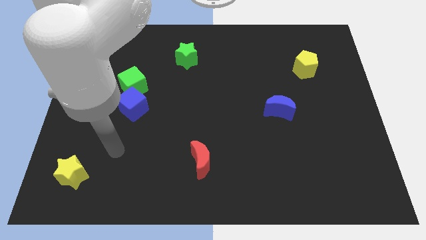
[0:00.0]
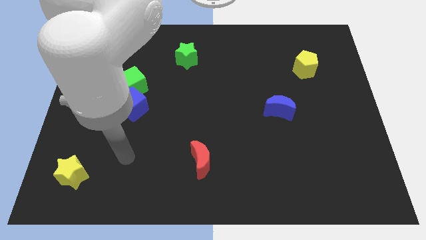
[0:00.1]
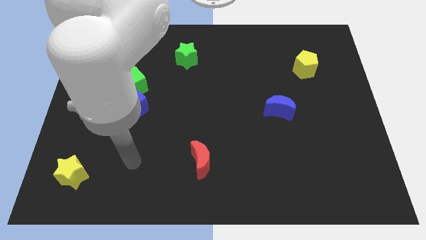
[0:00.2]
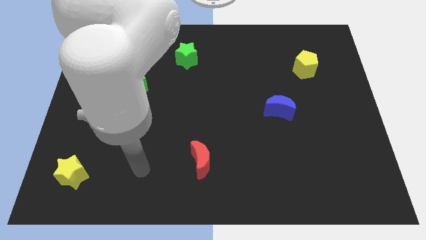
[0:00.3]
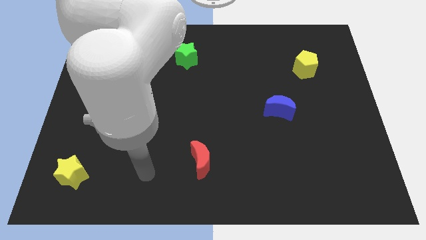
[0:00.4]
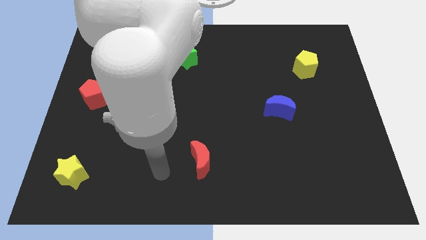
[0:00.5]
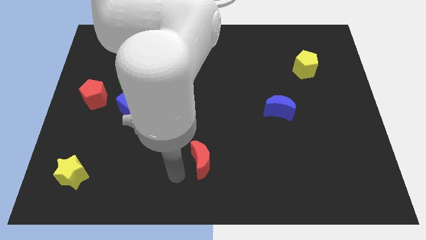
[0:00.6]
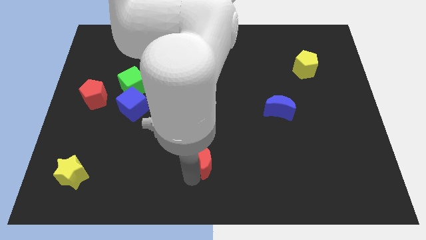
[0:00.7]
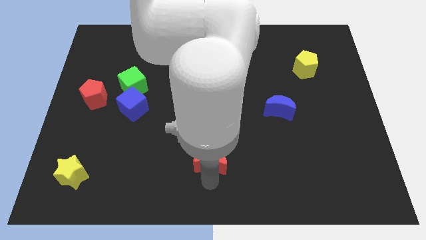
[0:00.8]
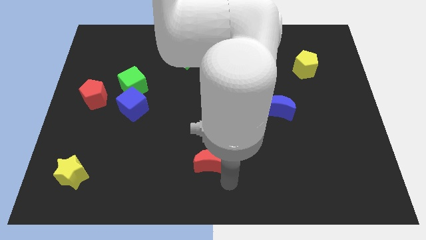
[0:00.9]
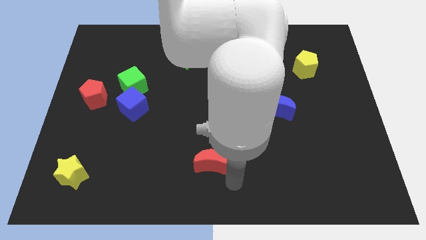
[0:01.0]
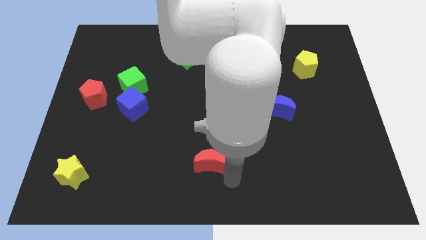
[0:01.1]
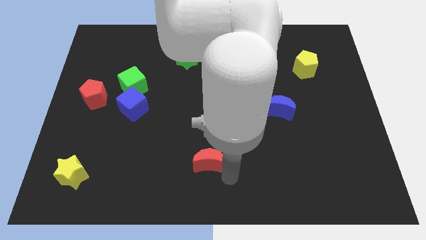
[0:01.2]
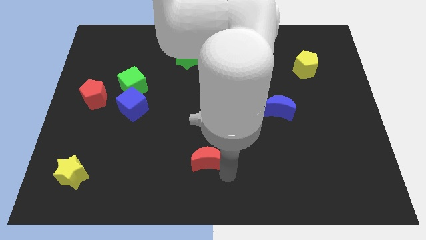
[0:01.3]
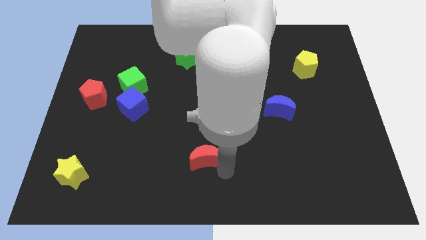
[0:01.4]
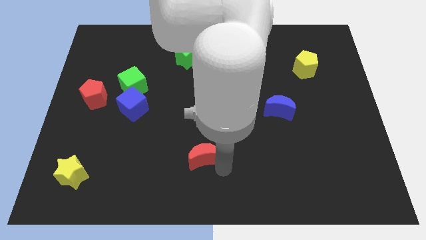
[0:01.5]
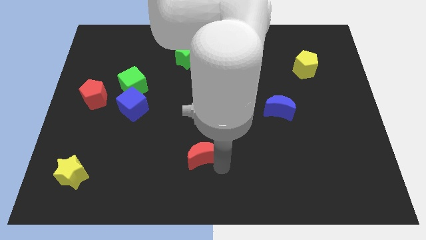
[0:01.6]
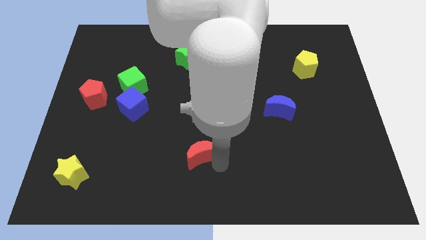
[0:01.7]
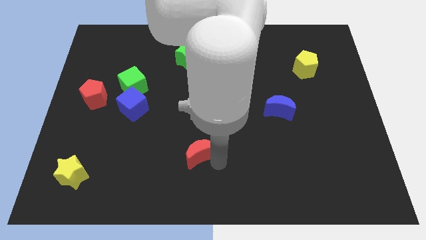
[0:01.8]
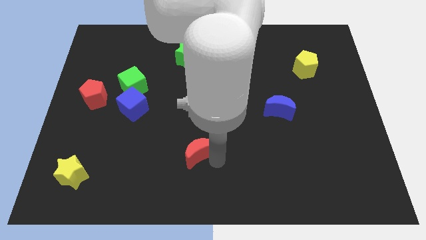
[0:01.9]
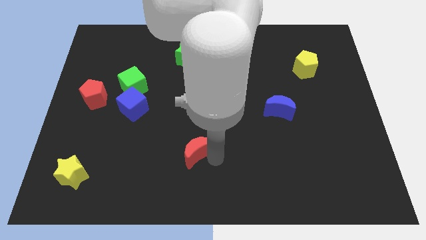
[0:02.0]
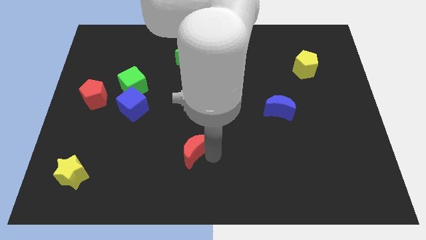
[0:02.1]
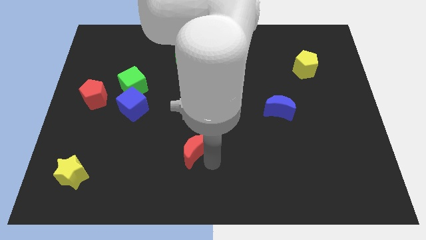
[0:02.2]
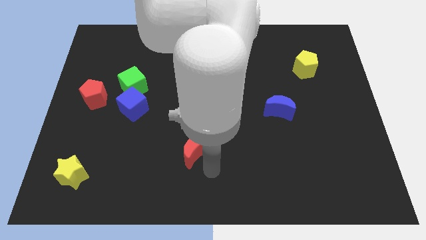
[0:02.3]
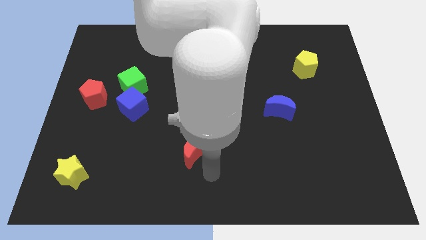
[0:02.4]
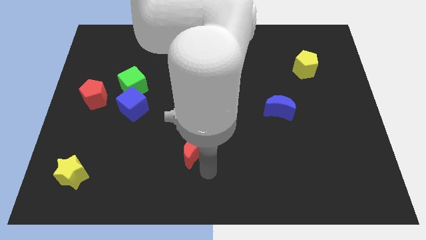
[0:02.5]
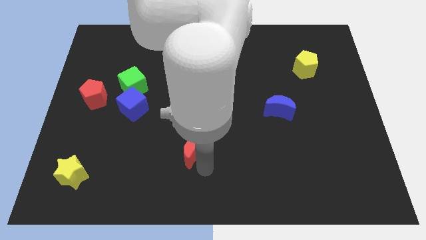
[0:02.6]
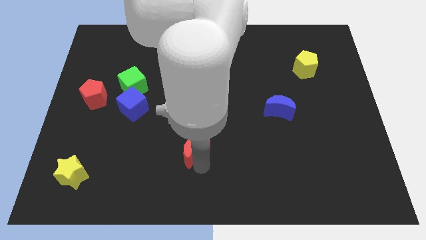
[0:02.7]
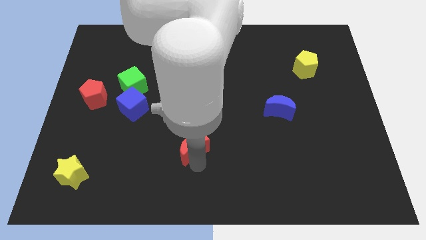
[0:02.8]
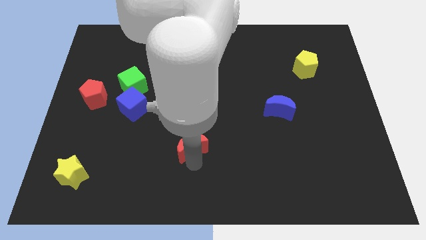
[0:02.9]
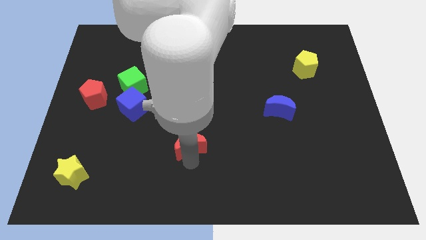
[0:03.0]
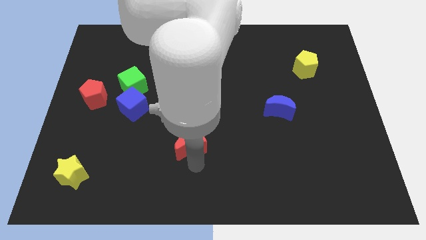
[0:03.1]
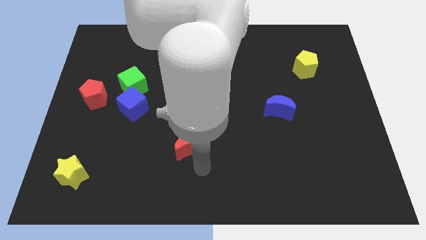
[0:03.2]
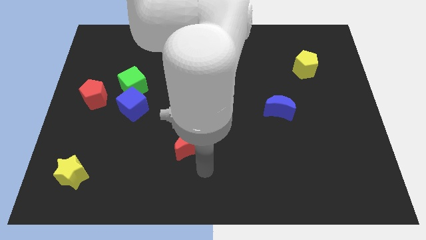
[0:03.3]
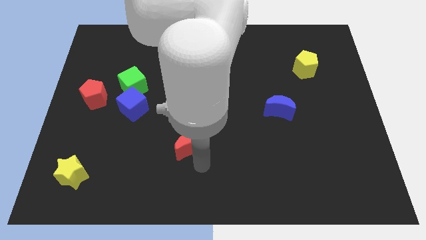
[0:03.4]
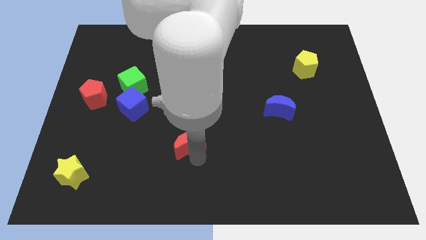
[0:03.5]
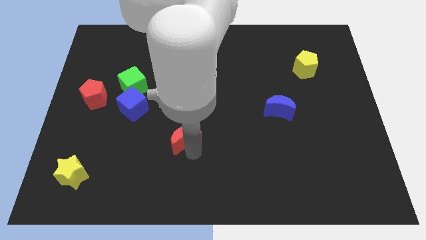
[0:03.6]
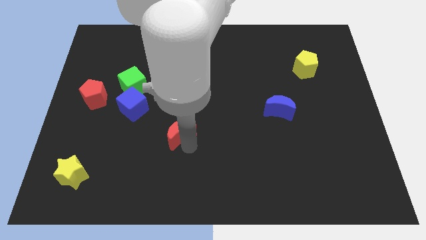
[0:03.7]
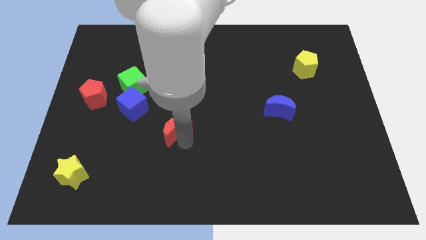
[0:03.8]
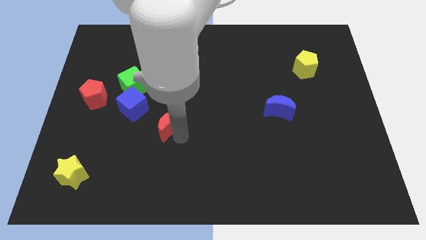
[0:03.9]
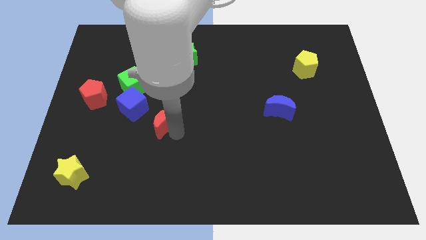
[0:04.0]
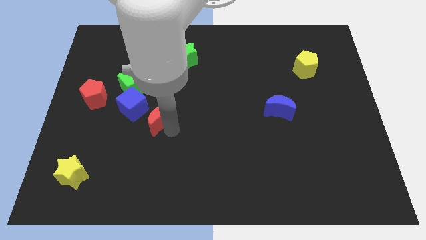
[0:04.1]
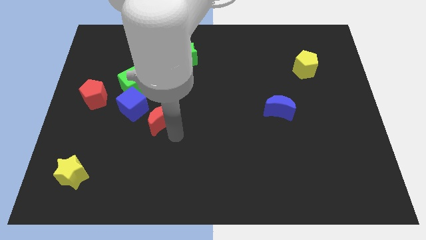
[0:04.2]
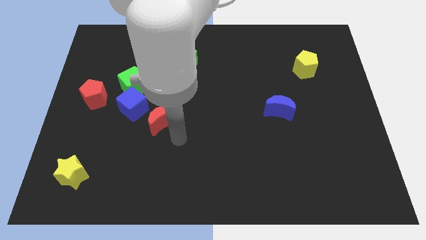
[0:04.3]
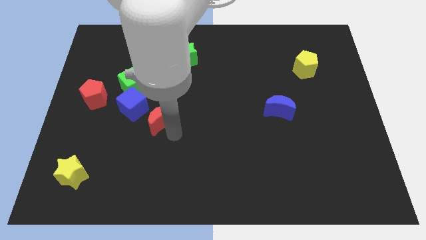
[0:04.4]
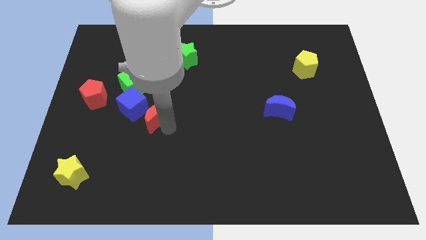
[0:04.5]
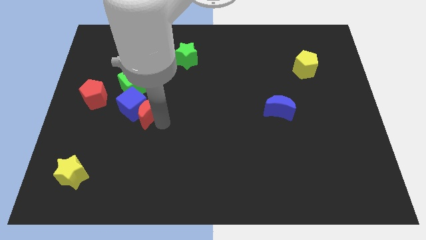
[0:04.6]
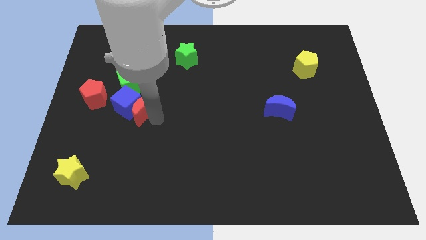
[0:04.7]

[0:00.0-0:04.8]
slide the red moon to the right of the red pentagon

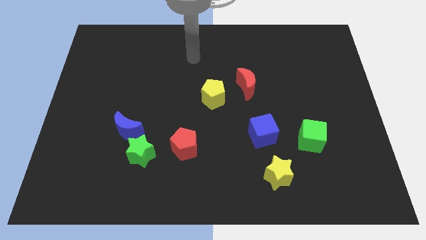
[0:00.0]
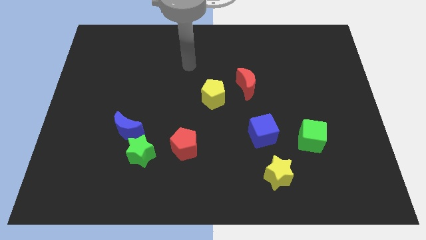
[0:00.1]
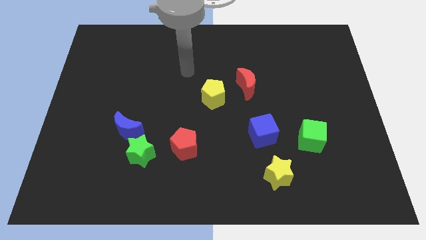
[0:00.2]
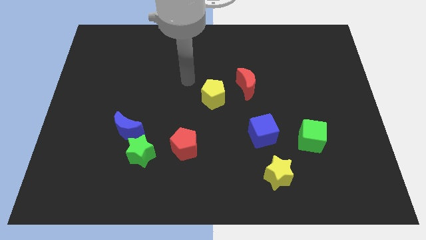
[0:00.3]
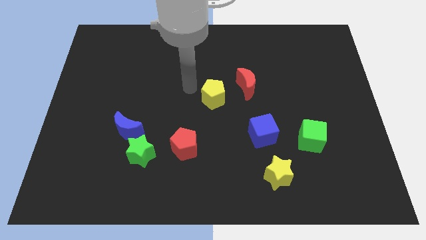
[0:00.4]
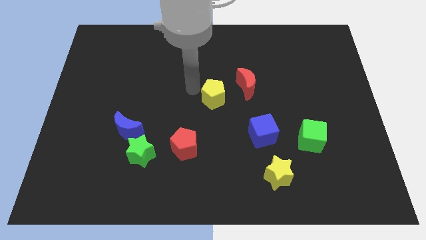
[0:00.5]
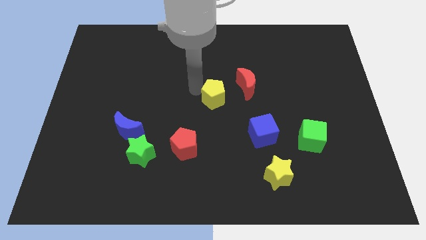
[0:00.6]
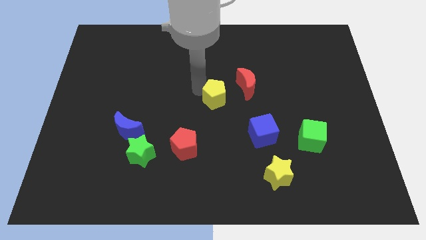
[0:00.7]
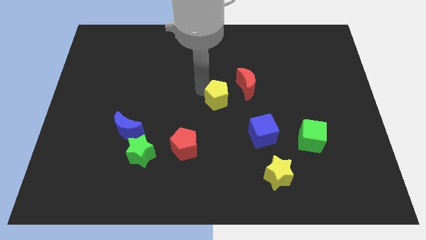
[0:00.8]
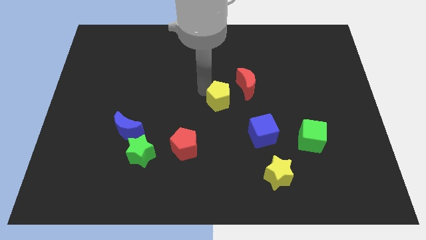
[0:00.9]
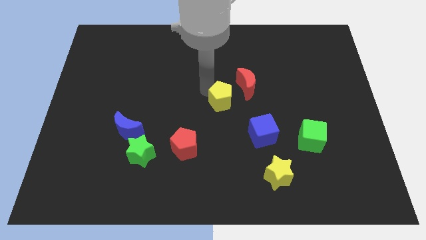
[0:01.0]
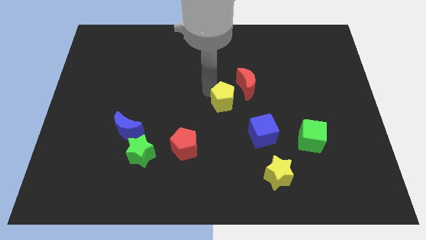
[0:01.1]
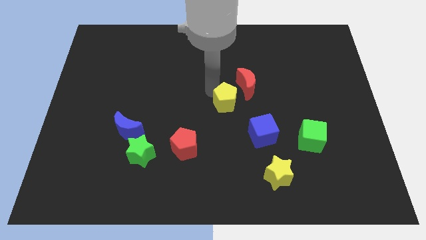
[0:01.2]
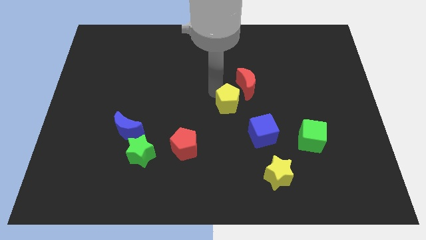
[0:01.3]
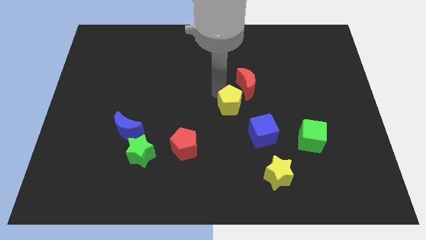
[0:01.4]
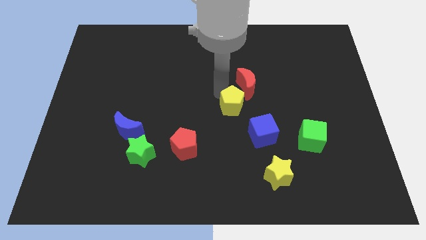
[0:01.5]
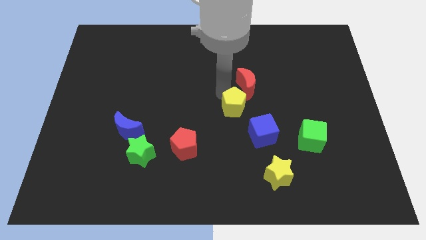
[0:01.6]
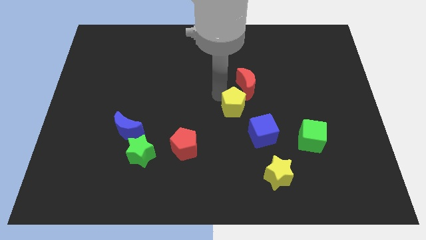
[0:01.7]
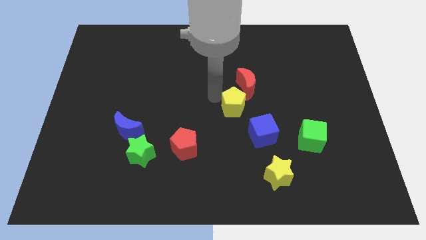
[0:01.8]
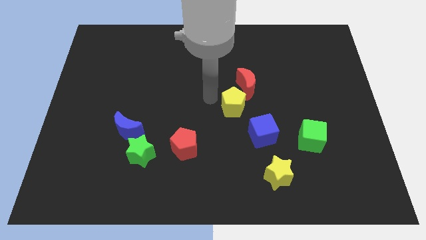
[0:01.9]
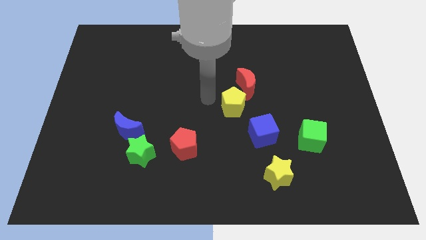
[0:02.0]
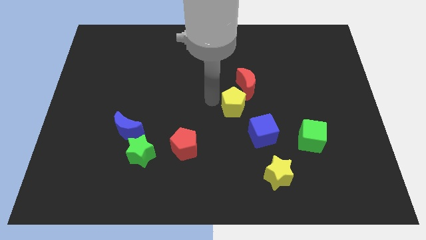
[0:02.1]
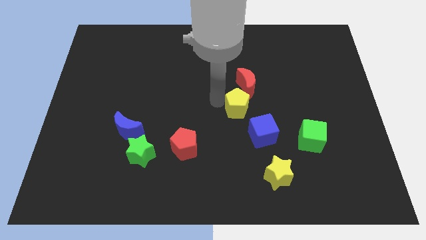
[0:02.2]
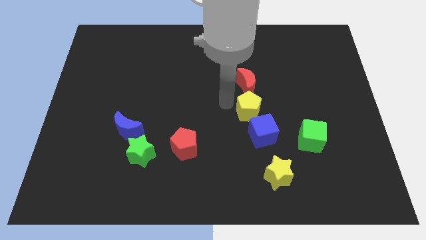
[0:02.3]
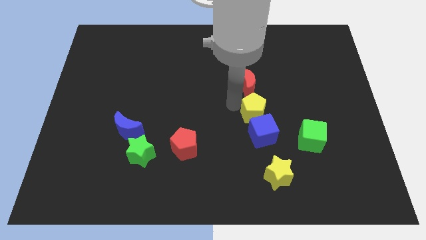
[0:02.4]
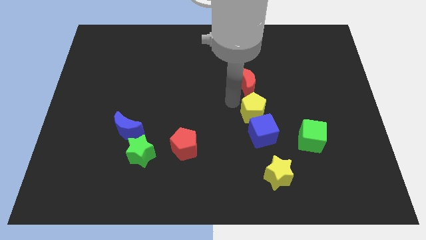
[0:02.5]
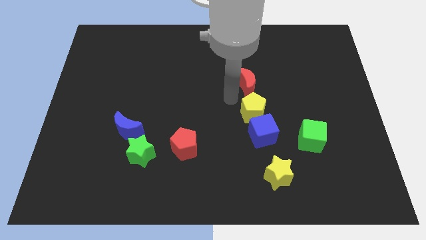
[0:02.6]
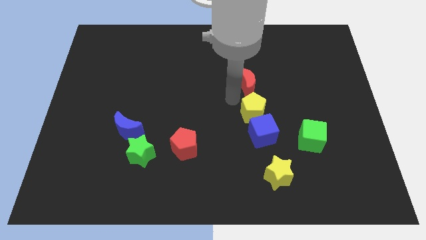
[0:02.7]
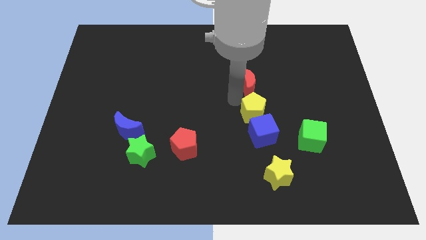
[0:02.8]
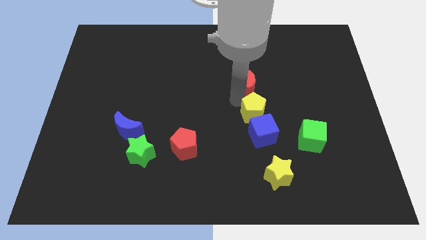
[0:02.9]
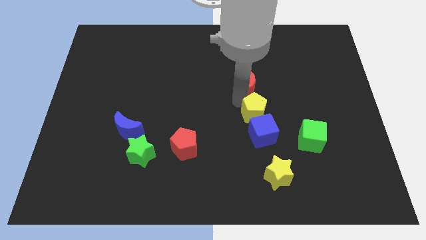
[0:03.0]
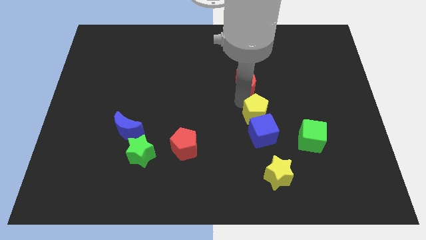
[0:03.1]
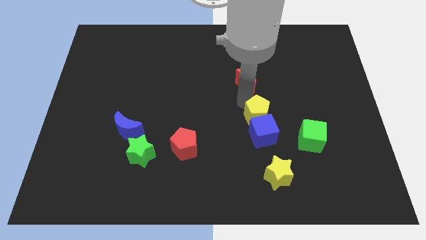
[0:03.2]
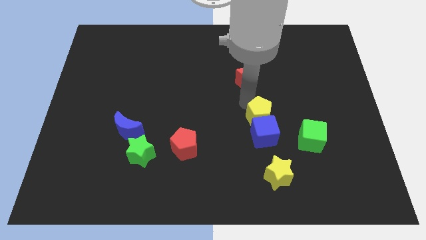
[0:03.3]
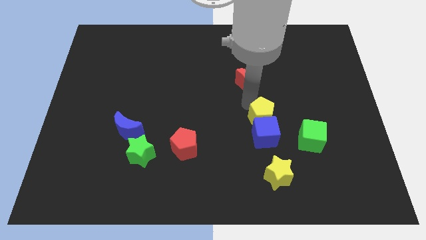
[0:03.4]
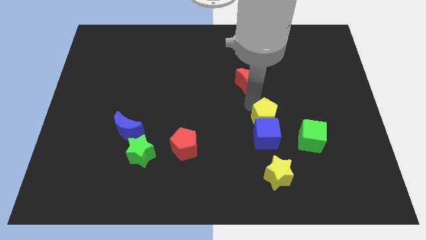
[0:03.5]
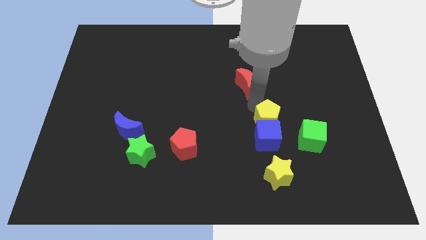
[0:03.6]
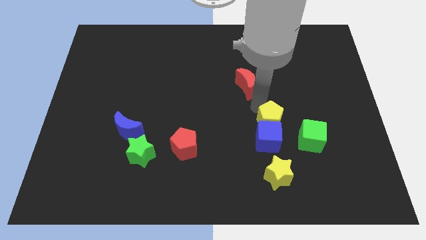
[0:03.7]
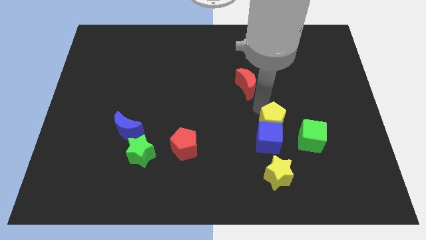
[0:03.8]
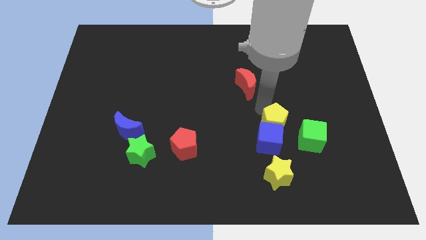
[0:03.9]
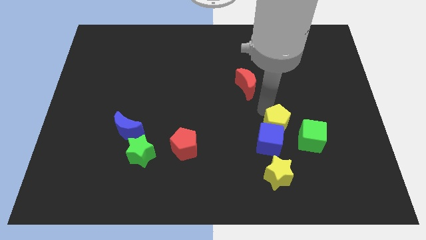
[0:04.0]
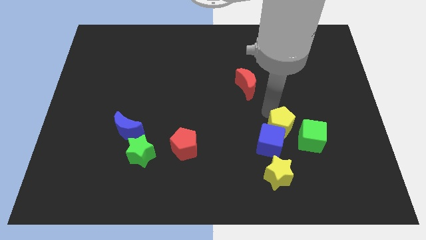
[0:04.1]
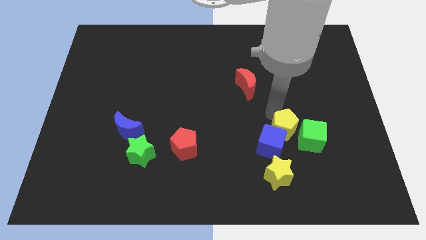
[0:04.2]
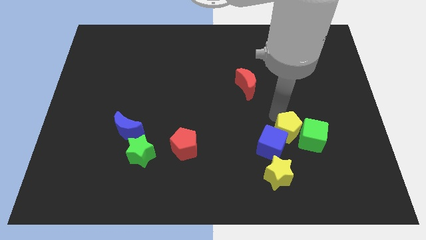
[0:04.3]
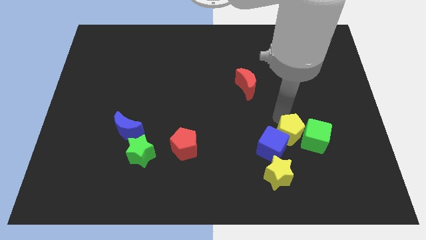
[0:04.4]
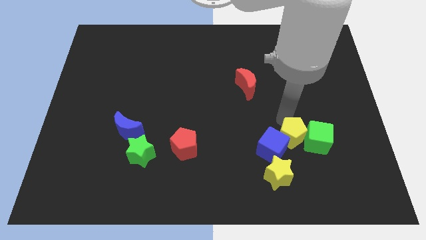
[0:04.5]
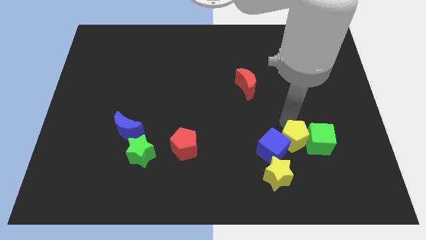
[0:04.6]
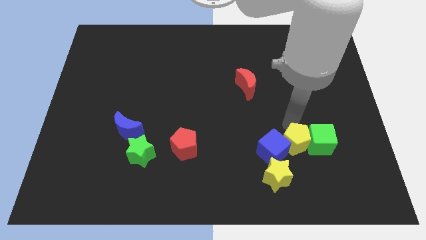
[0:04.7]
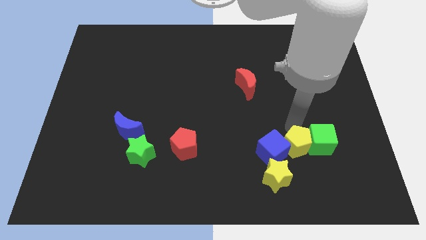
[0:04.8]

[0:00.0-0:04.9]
push the yellow pentagon to the bottom right side of the blue cube
